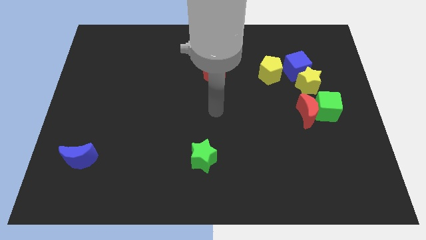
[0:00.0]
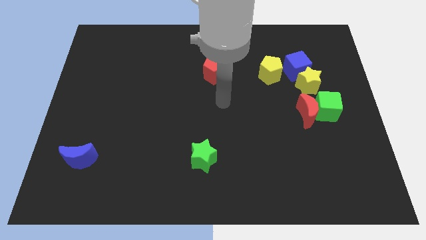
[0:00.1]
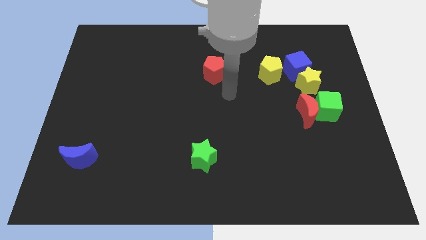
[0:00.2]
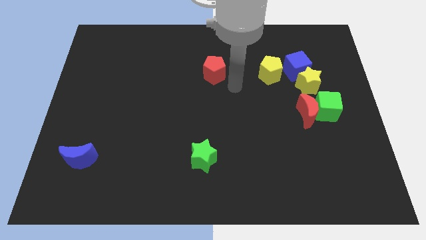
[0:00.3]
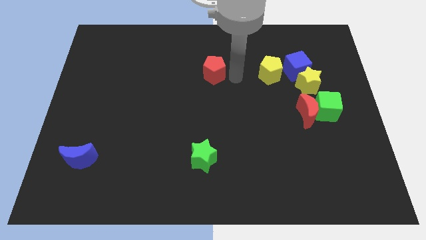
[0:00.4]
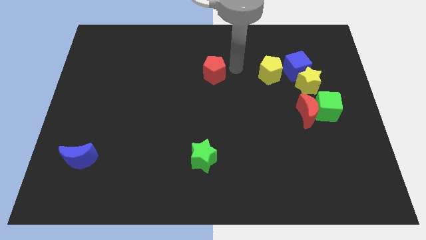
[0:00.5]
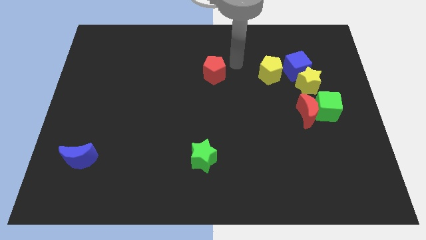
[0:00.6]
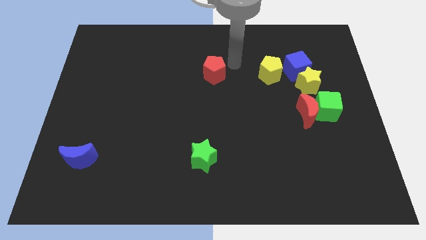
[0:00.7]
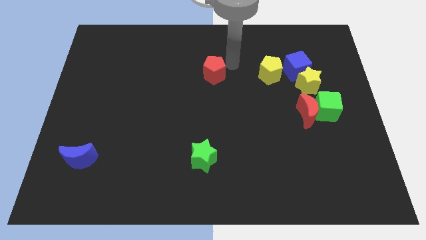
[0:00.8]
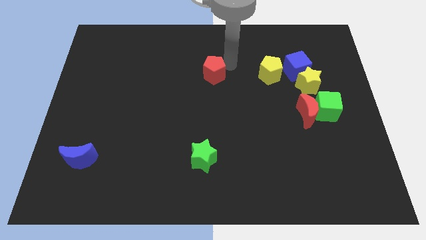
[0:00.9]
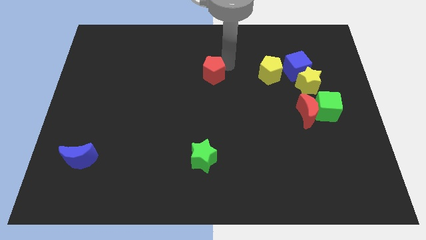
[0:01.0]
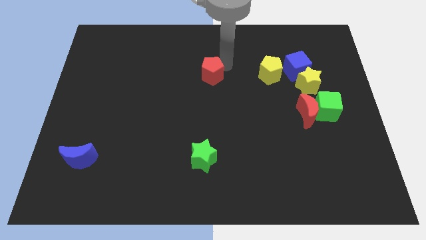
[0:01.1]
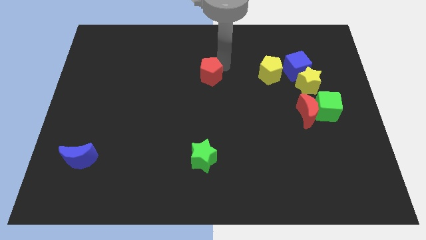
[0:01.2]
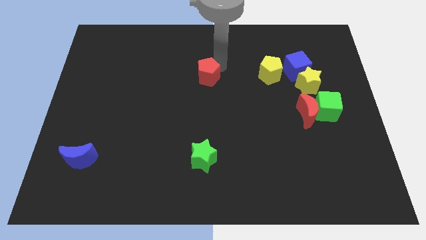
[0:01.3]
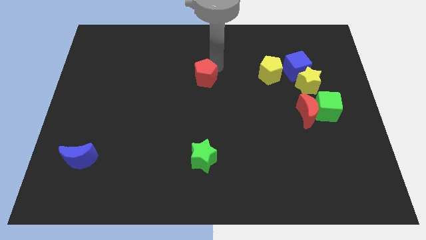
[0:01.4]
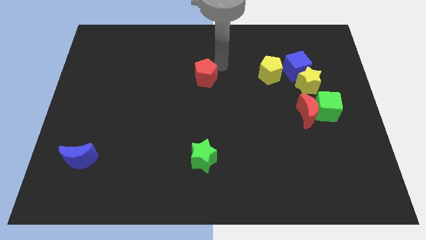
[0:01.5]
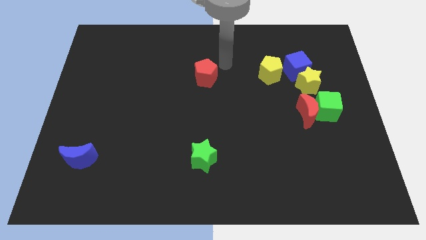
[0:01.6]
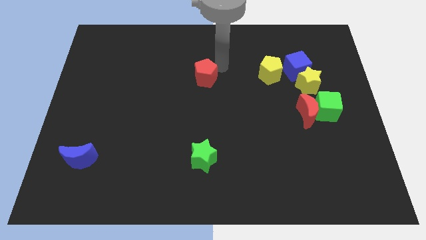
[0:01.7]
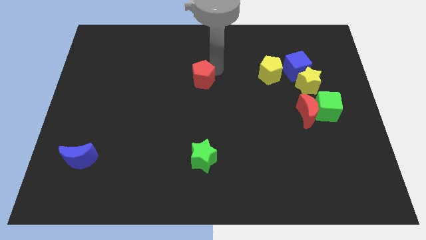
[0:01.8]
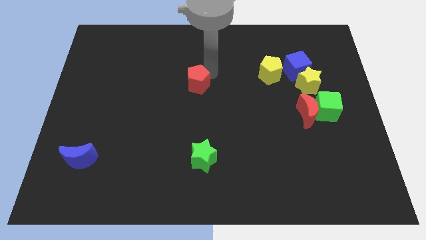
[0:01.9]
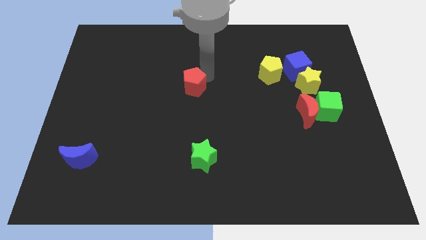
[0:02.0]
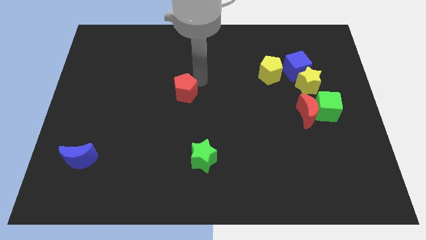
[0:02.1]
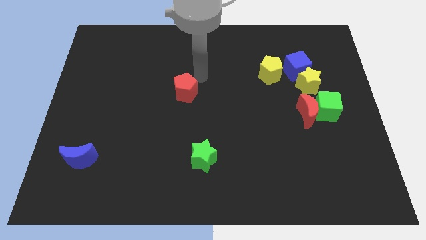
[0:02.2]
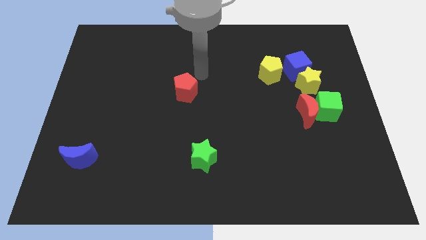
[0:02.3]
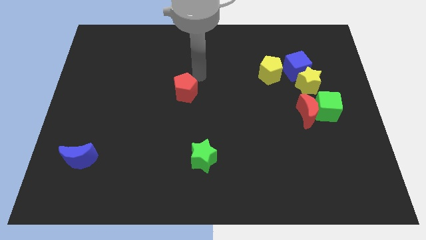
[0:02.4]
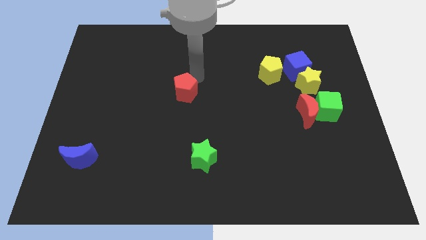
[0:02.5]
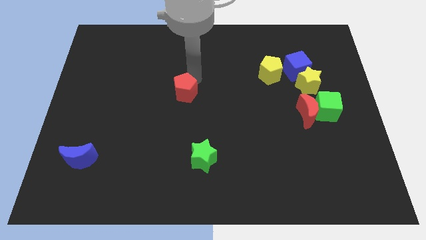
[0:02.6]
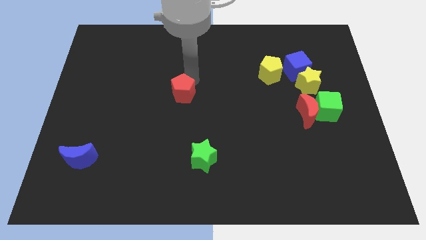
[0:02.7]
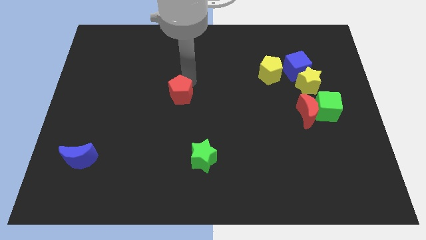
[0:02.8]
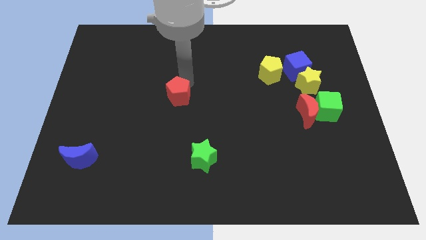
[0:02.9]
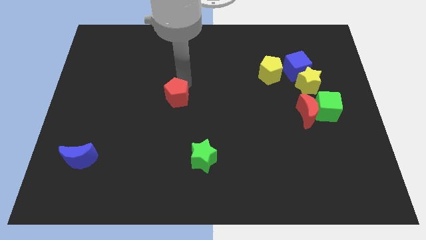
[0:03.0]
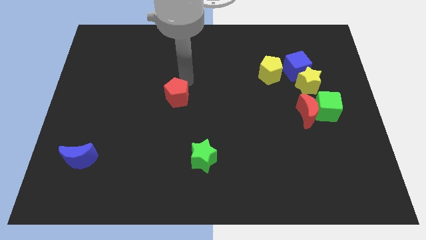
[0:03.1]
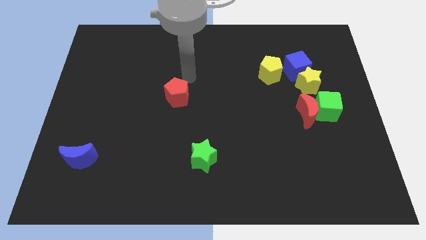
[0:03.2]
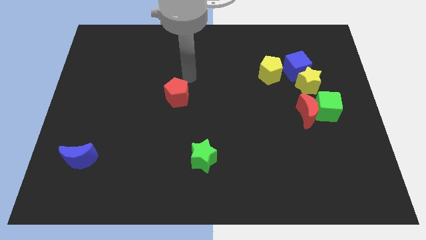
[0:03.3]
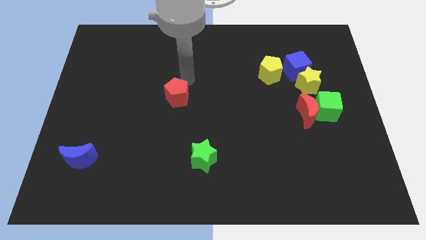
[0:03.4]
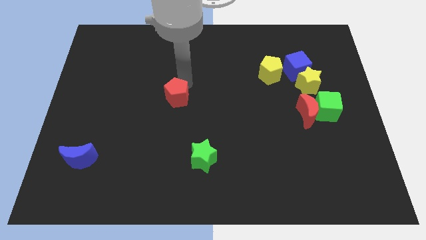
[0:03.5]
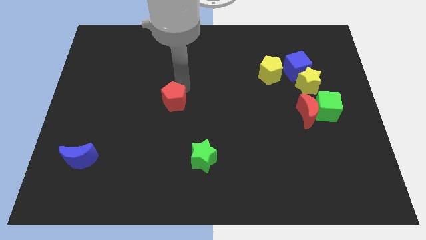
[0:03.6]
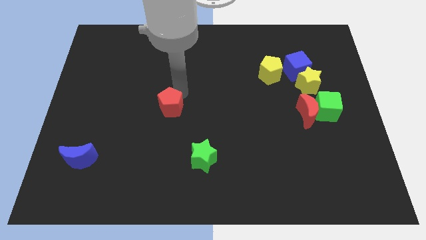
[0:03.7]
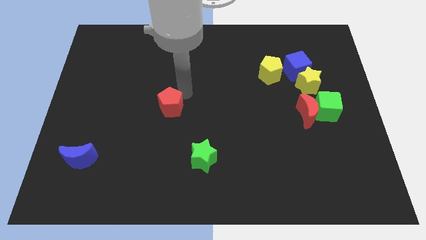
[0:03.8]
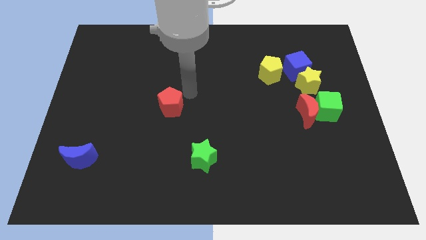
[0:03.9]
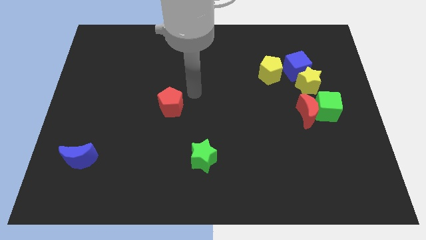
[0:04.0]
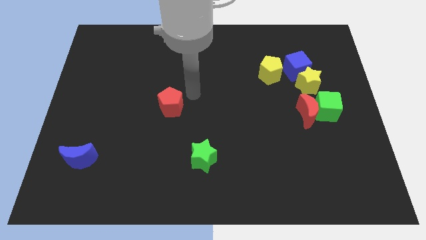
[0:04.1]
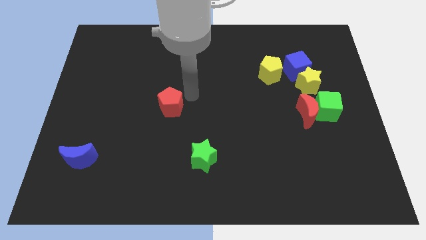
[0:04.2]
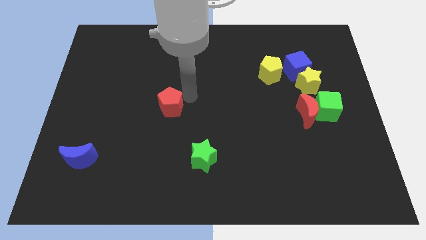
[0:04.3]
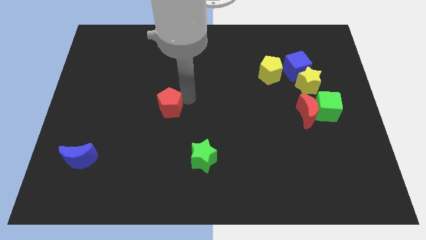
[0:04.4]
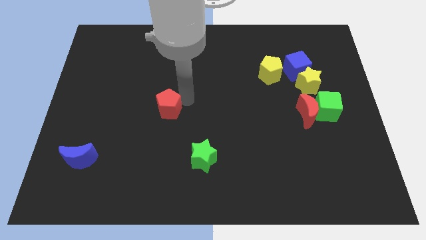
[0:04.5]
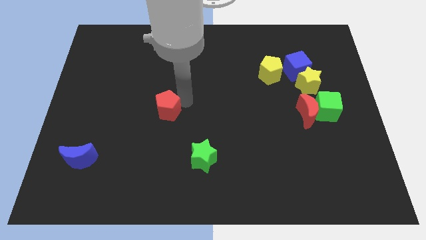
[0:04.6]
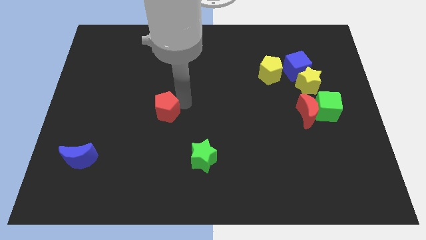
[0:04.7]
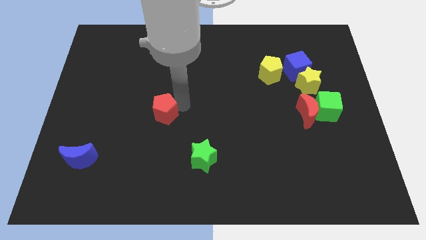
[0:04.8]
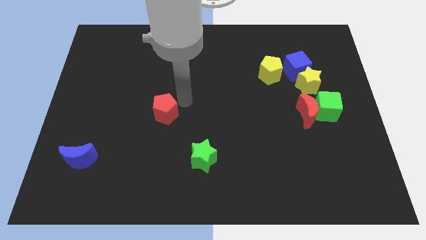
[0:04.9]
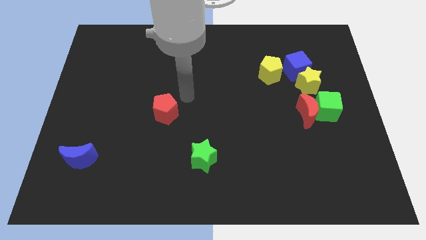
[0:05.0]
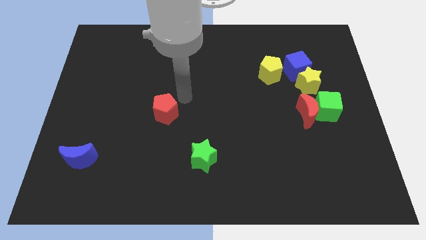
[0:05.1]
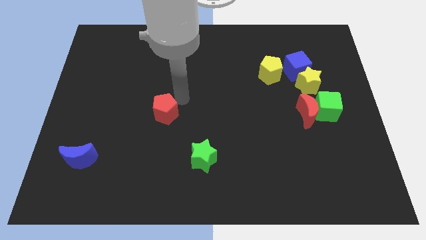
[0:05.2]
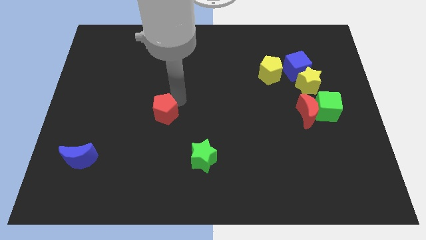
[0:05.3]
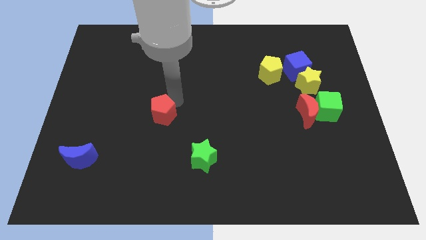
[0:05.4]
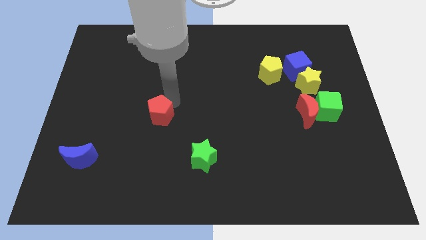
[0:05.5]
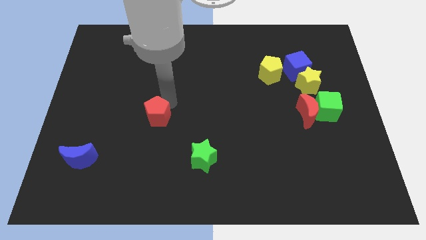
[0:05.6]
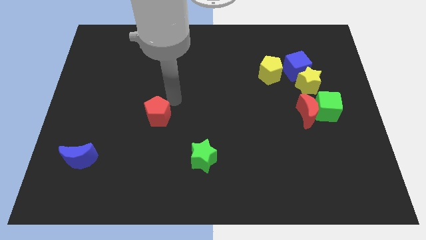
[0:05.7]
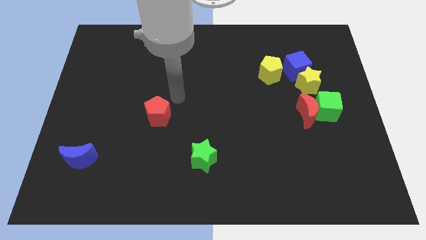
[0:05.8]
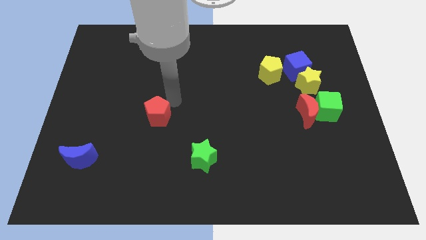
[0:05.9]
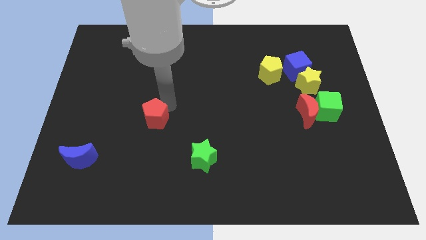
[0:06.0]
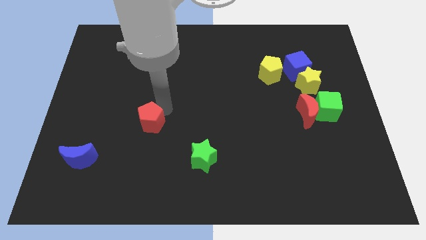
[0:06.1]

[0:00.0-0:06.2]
move the red pentagon downwards and then left

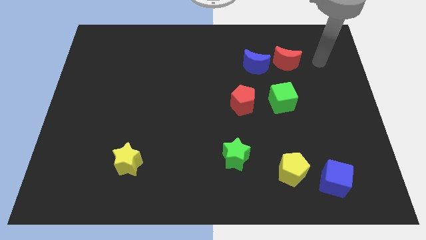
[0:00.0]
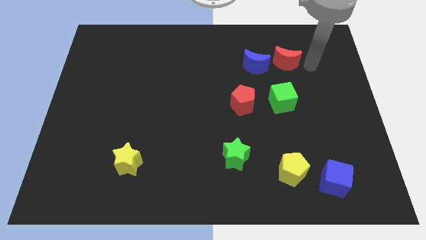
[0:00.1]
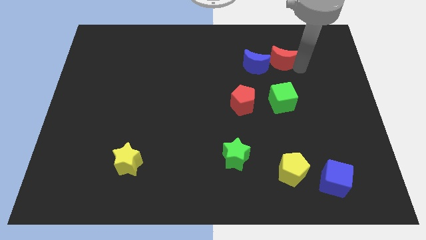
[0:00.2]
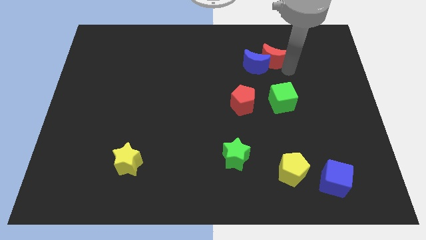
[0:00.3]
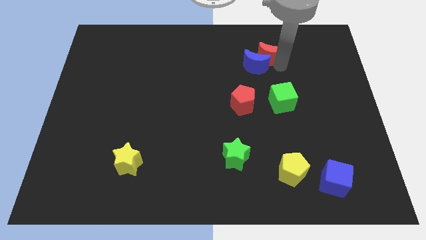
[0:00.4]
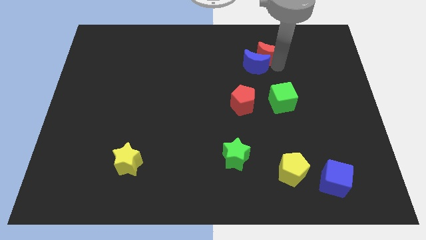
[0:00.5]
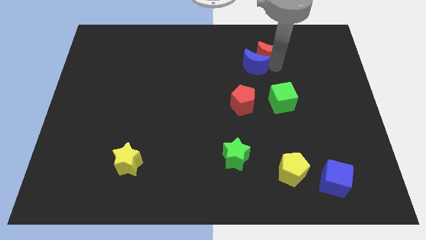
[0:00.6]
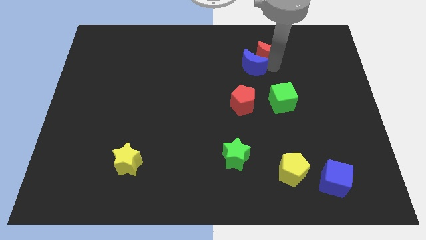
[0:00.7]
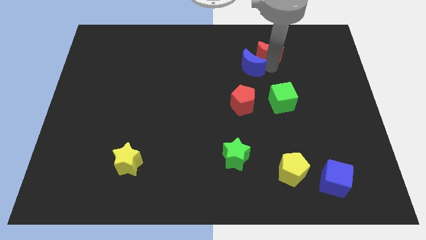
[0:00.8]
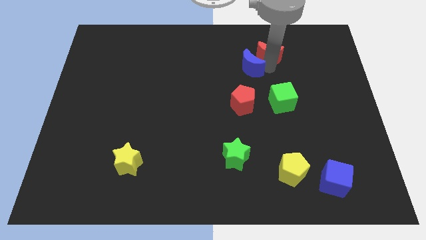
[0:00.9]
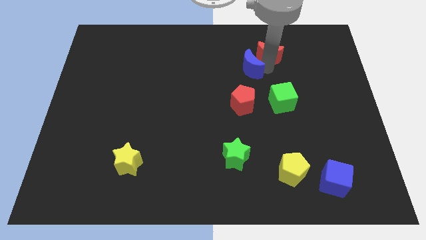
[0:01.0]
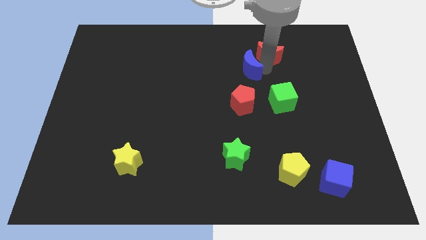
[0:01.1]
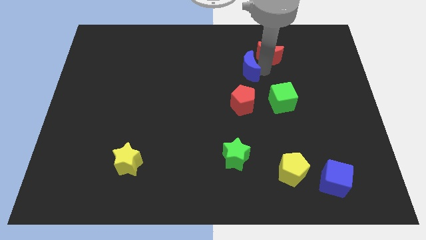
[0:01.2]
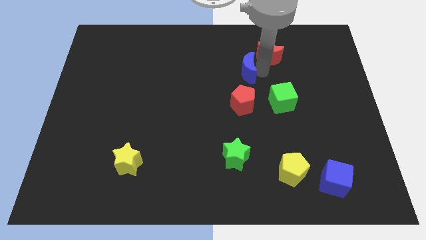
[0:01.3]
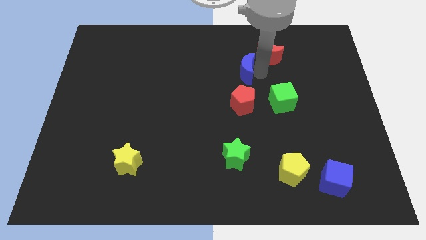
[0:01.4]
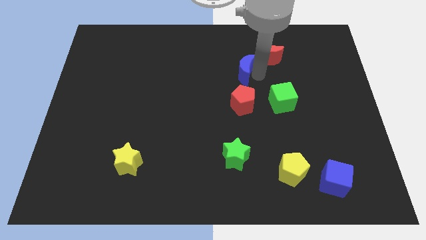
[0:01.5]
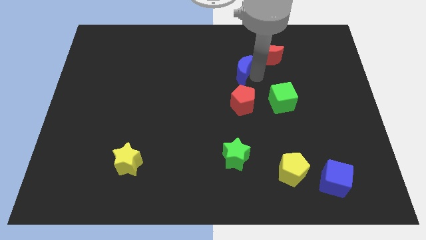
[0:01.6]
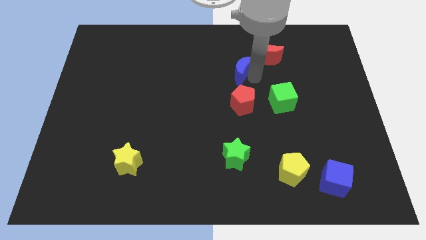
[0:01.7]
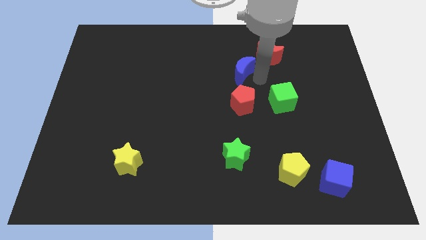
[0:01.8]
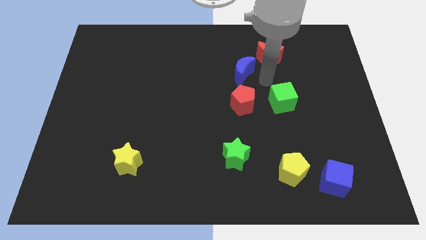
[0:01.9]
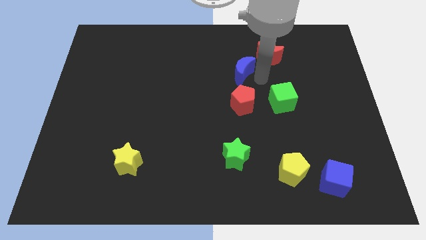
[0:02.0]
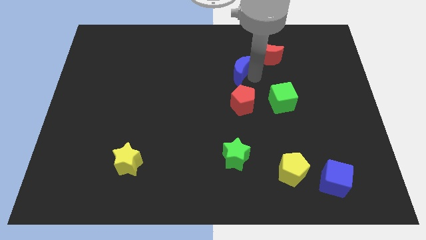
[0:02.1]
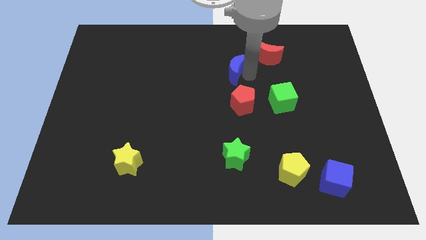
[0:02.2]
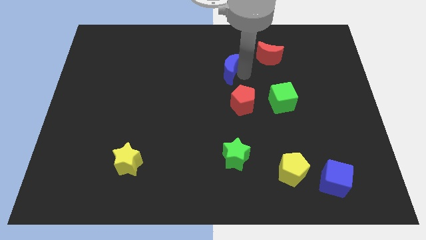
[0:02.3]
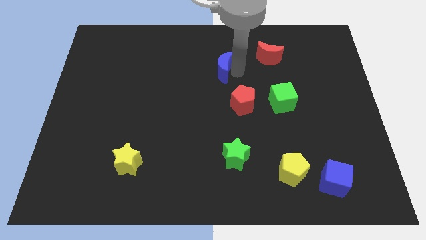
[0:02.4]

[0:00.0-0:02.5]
push the blue moon to the left slightly
